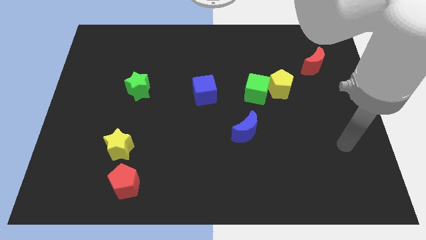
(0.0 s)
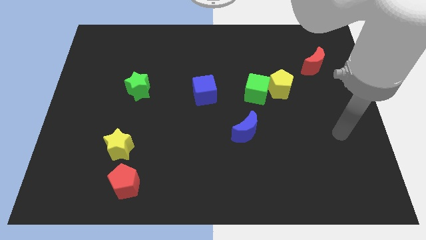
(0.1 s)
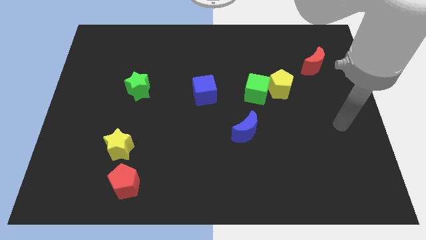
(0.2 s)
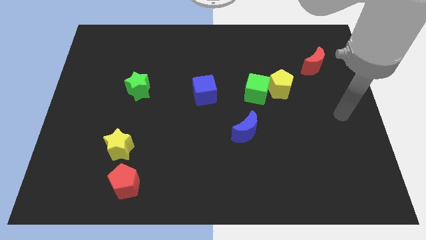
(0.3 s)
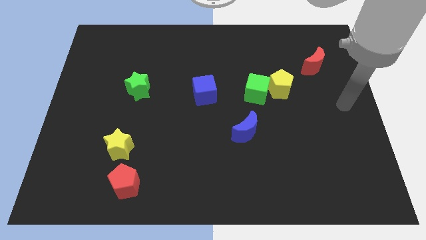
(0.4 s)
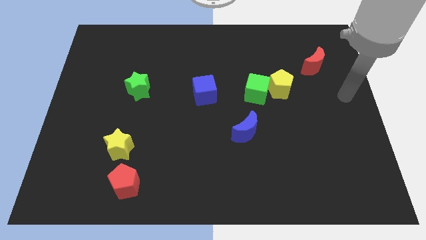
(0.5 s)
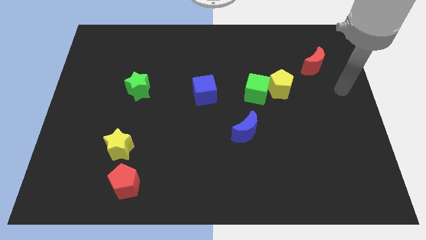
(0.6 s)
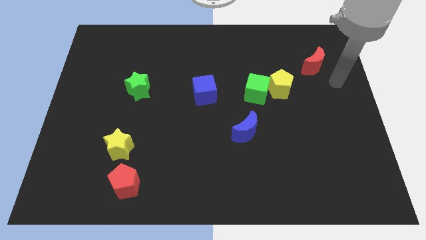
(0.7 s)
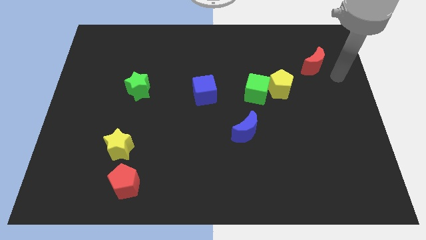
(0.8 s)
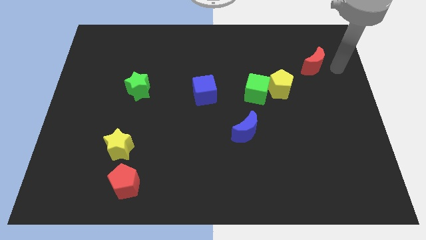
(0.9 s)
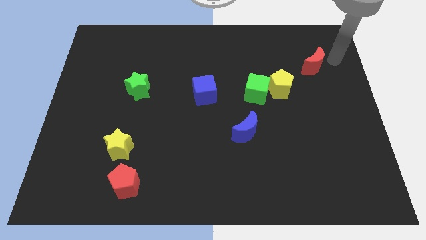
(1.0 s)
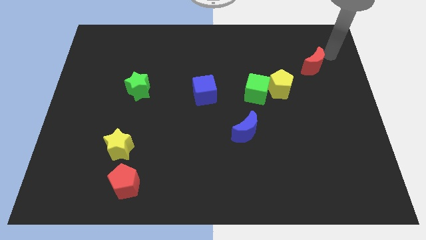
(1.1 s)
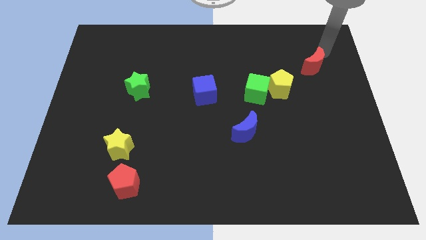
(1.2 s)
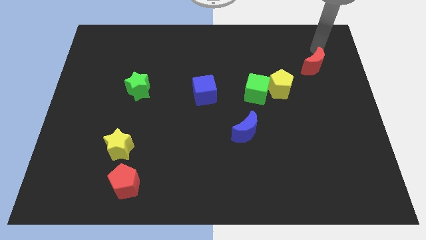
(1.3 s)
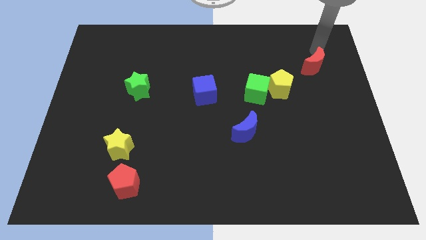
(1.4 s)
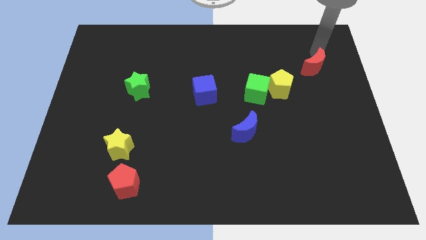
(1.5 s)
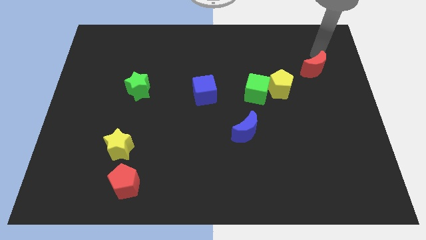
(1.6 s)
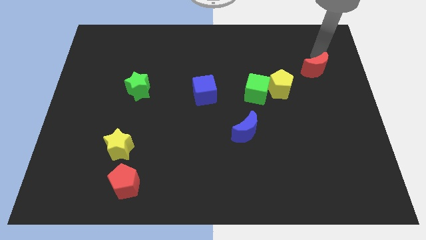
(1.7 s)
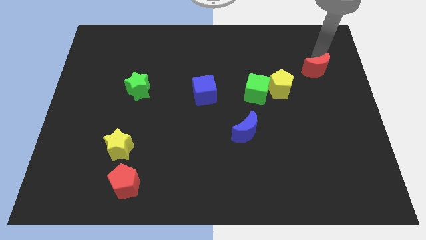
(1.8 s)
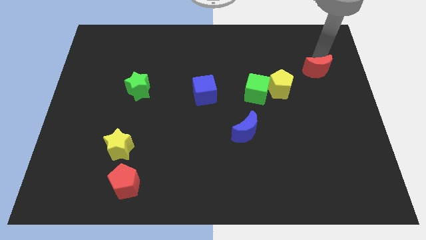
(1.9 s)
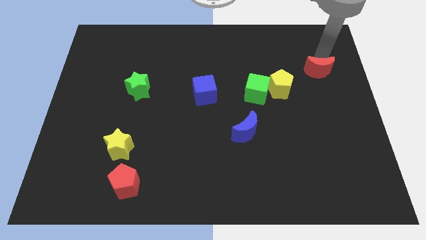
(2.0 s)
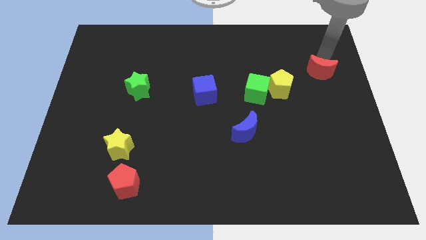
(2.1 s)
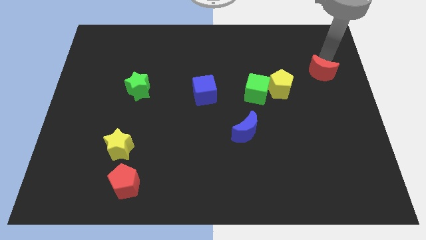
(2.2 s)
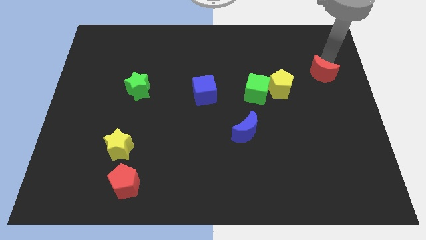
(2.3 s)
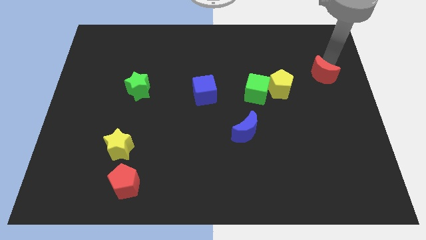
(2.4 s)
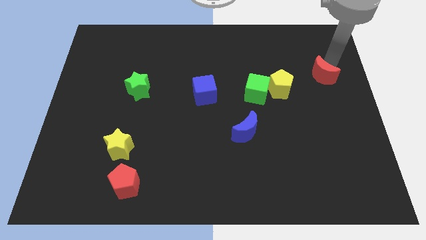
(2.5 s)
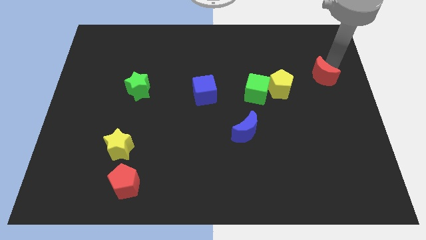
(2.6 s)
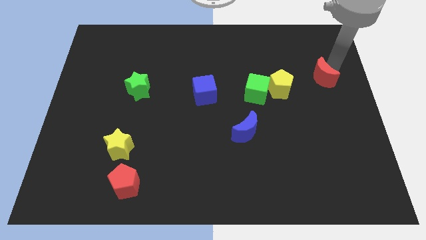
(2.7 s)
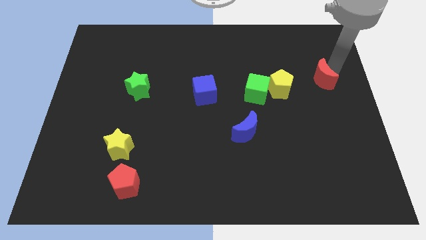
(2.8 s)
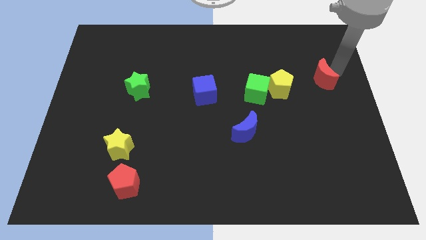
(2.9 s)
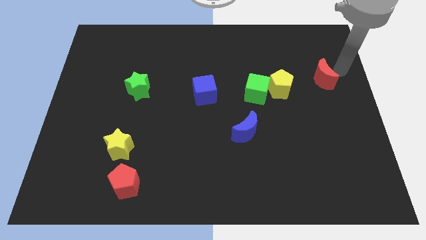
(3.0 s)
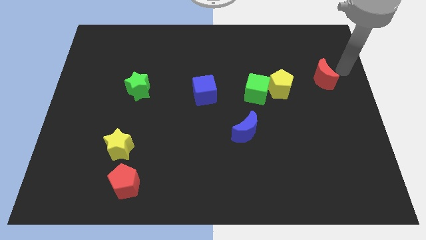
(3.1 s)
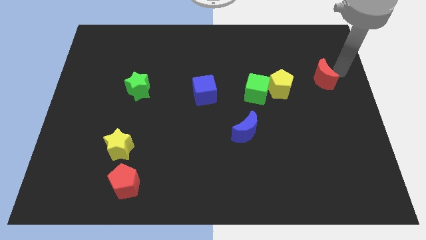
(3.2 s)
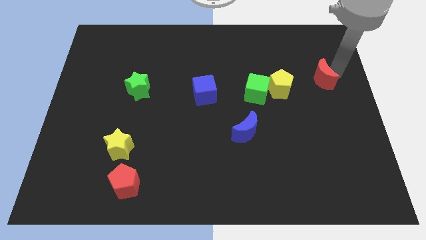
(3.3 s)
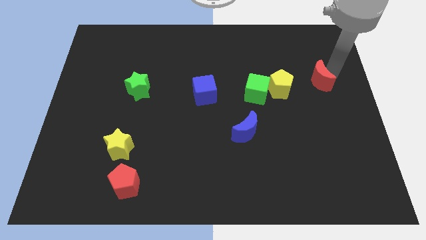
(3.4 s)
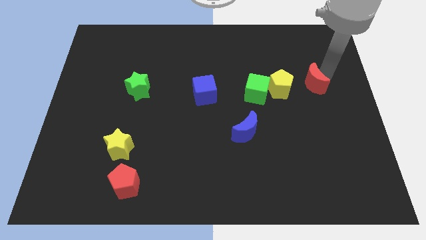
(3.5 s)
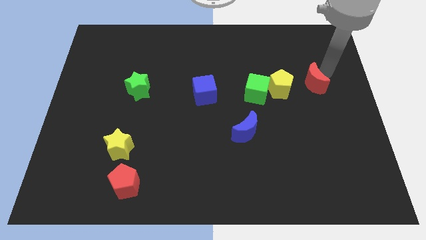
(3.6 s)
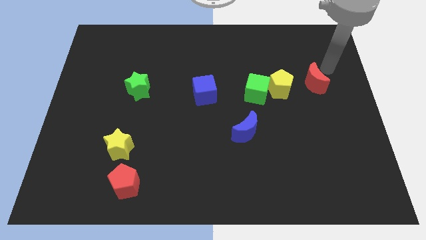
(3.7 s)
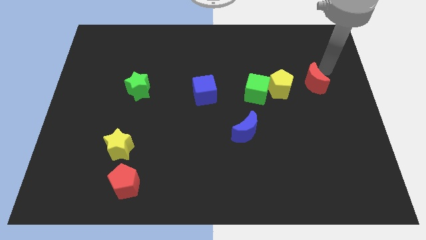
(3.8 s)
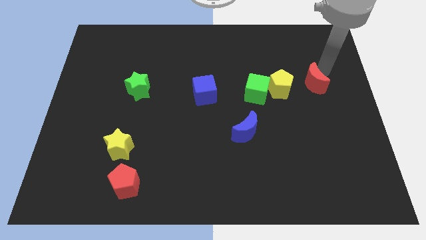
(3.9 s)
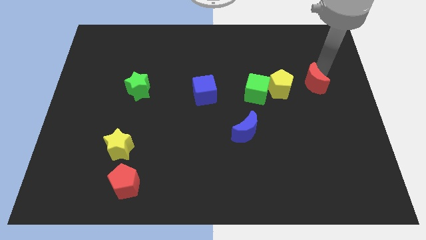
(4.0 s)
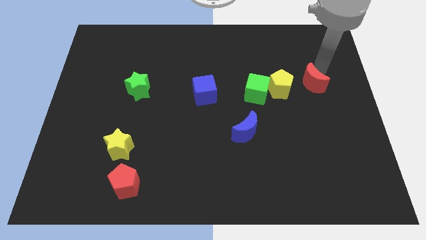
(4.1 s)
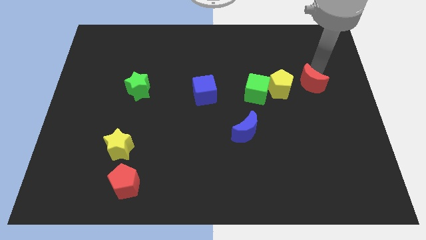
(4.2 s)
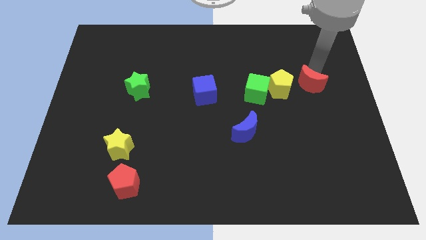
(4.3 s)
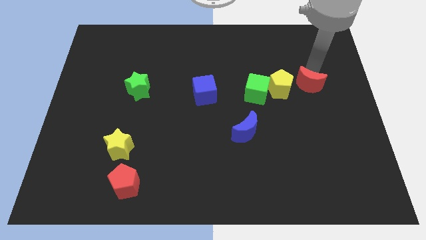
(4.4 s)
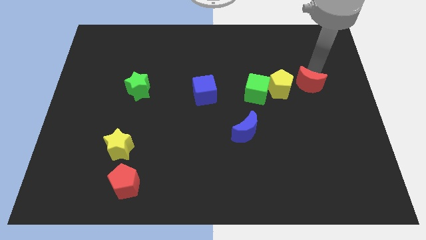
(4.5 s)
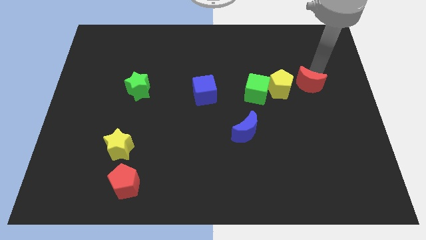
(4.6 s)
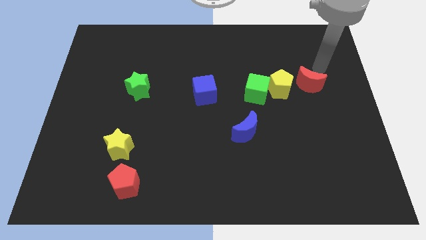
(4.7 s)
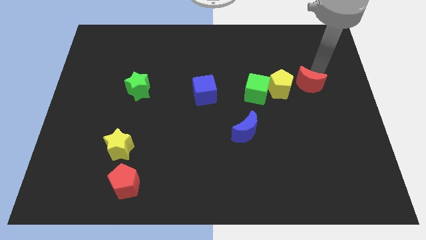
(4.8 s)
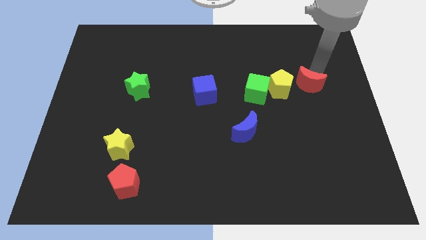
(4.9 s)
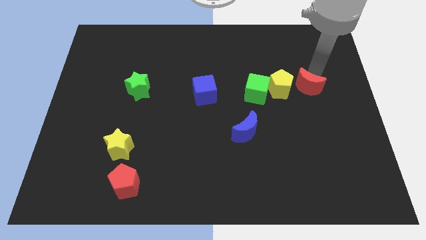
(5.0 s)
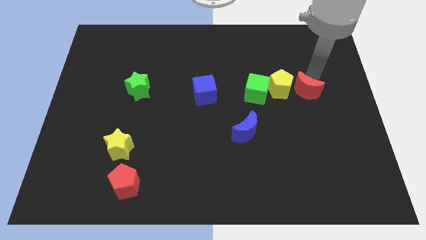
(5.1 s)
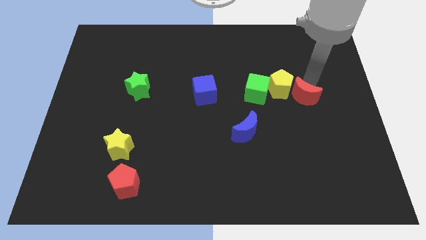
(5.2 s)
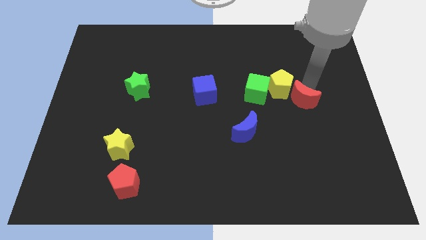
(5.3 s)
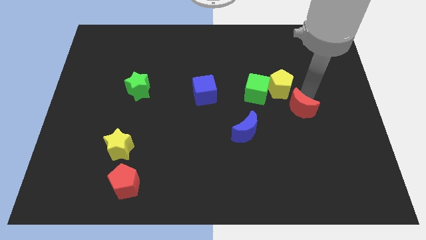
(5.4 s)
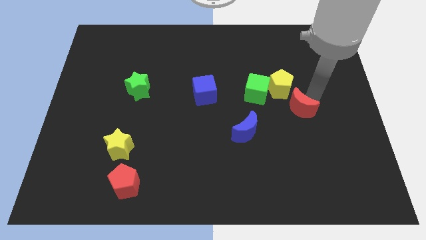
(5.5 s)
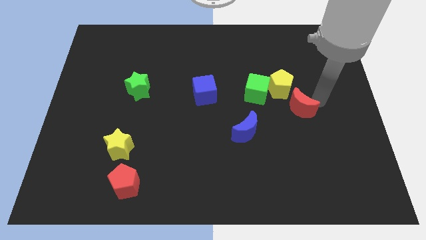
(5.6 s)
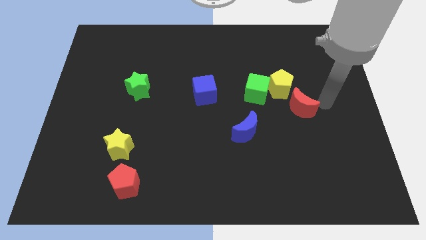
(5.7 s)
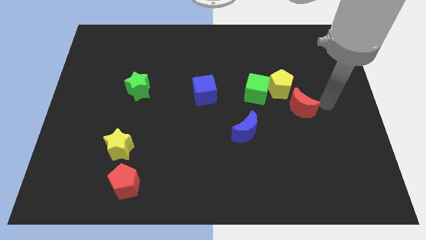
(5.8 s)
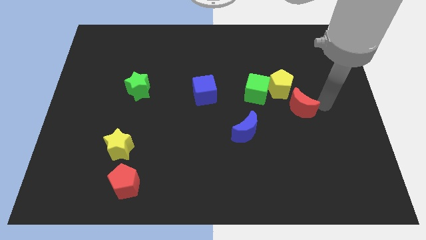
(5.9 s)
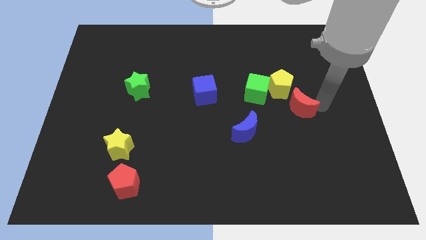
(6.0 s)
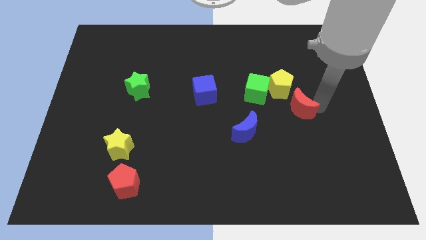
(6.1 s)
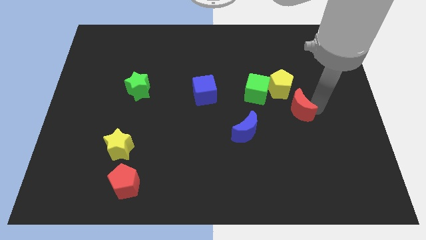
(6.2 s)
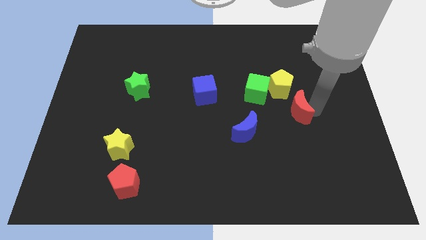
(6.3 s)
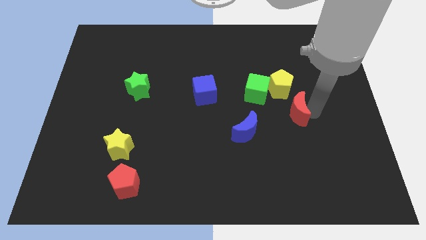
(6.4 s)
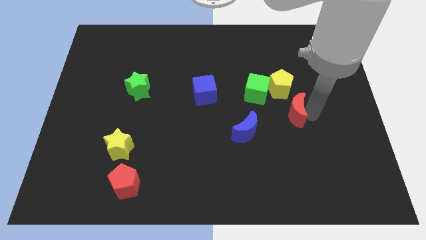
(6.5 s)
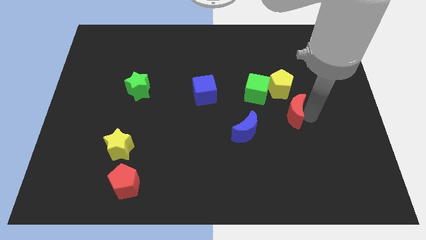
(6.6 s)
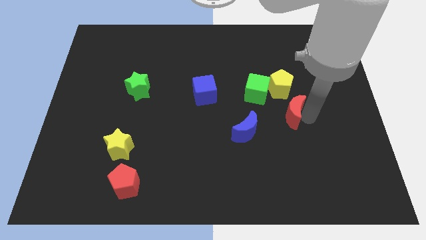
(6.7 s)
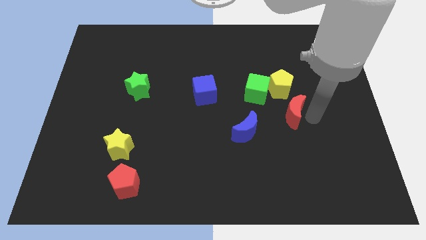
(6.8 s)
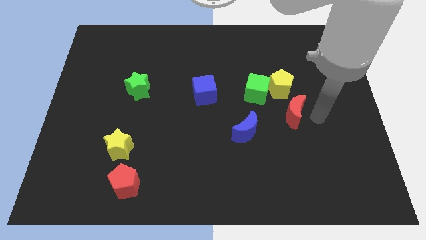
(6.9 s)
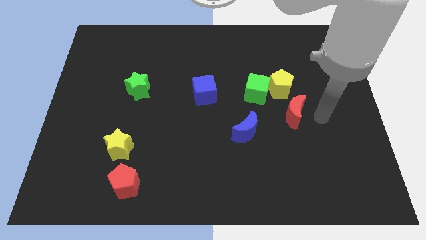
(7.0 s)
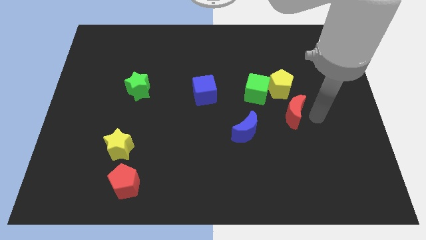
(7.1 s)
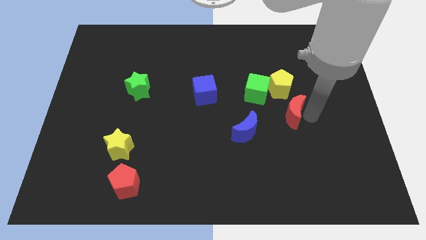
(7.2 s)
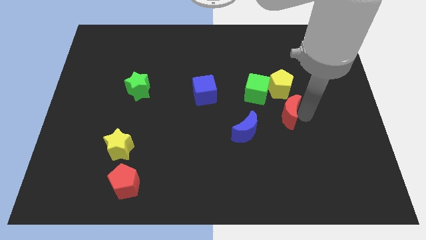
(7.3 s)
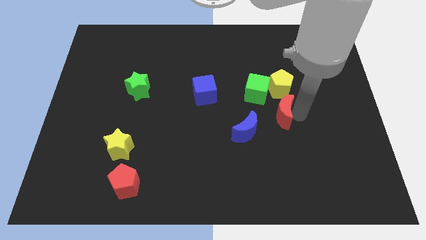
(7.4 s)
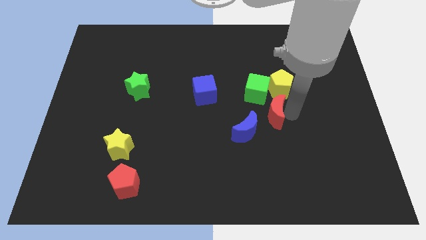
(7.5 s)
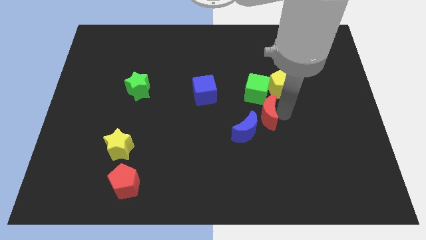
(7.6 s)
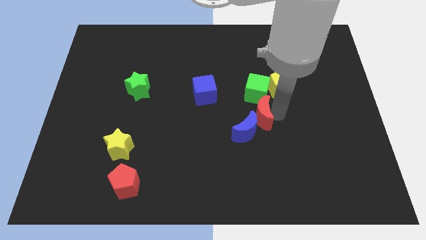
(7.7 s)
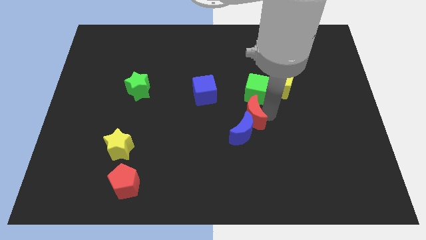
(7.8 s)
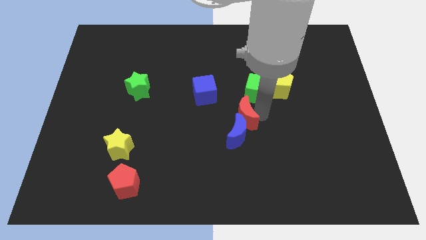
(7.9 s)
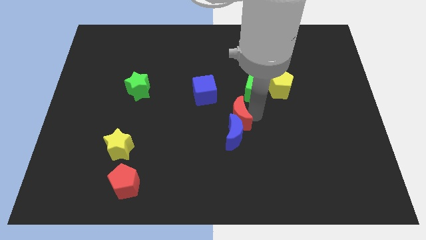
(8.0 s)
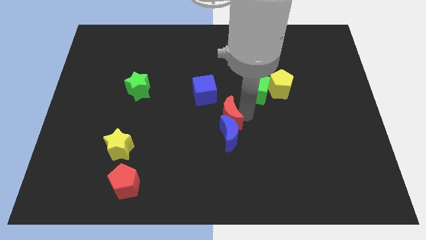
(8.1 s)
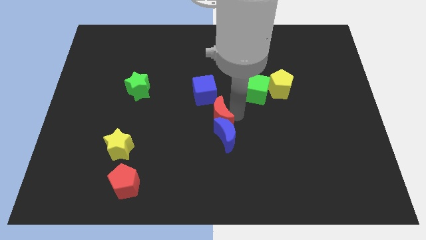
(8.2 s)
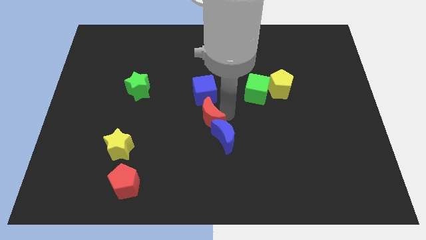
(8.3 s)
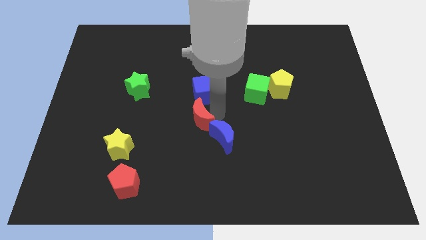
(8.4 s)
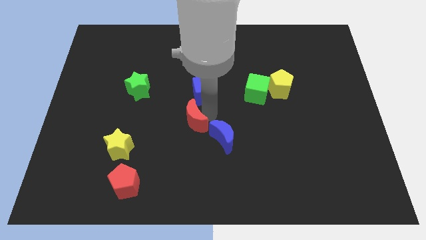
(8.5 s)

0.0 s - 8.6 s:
put the red moon just left of the blue moon
